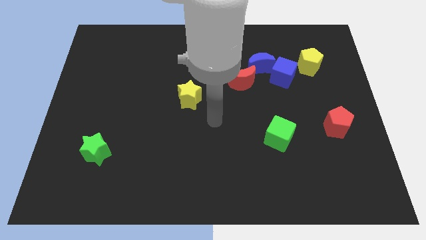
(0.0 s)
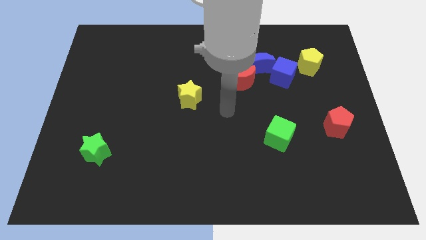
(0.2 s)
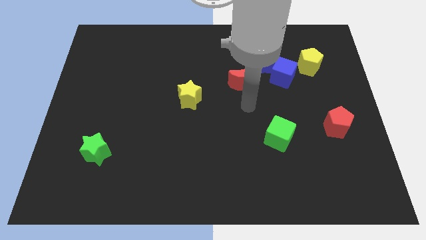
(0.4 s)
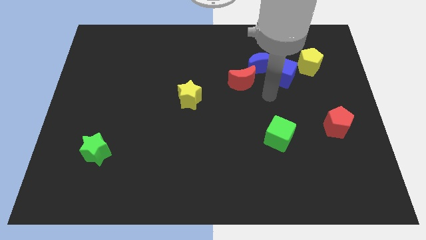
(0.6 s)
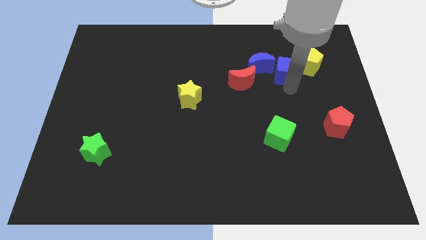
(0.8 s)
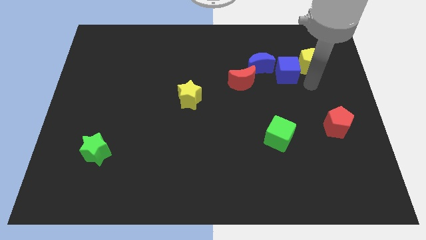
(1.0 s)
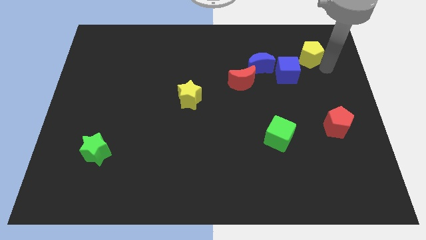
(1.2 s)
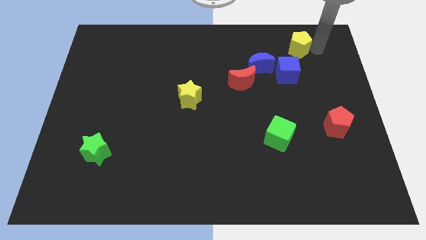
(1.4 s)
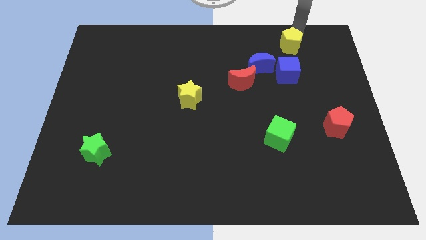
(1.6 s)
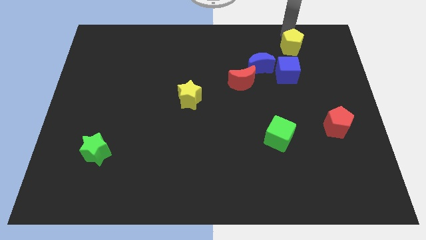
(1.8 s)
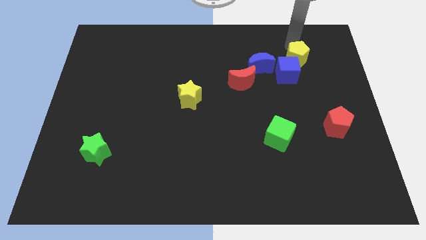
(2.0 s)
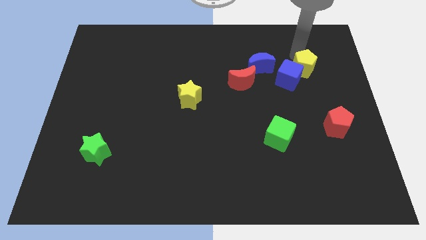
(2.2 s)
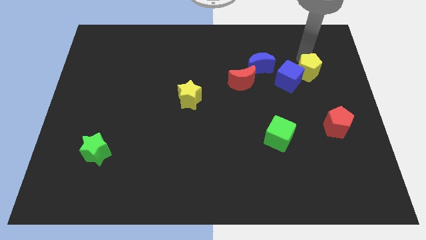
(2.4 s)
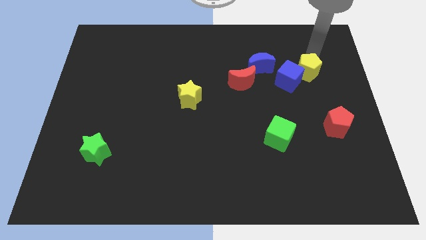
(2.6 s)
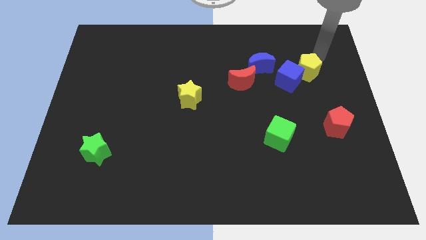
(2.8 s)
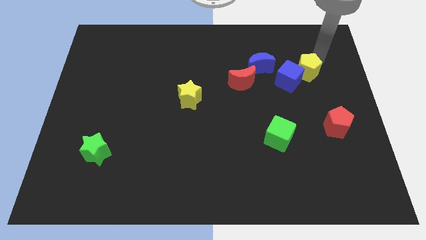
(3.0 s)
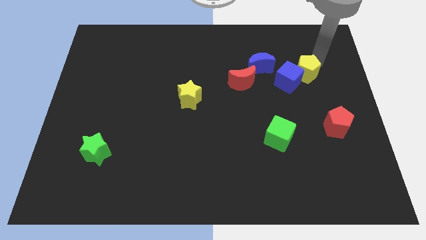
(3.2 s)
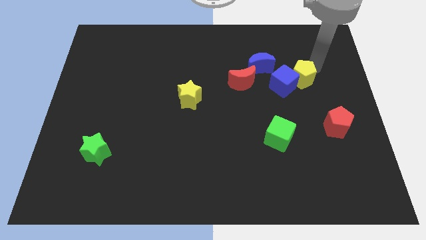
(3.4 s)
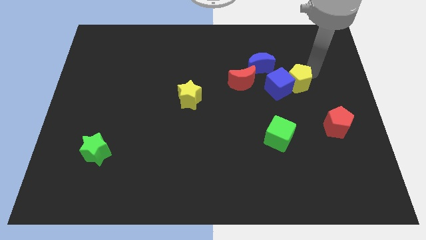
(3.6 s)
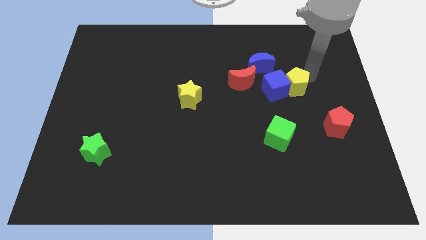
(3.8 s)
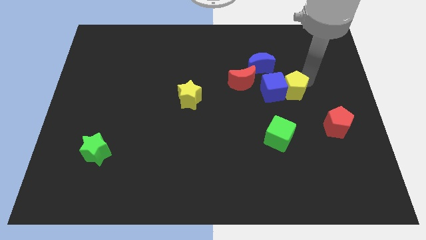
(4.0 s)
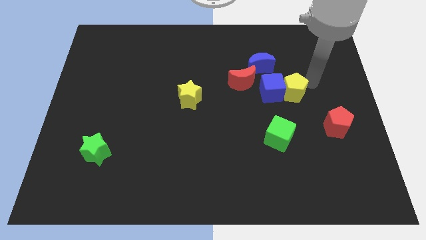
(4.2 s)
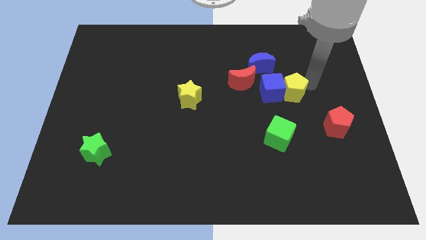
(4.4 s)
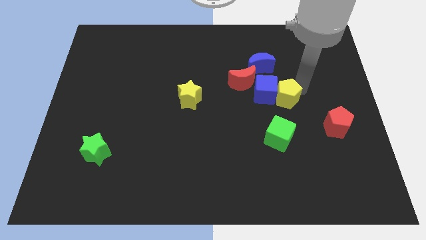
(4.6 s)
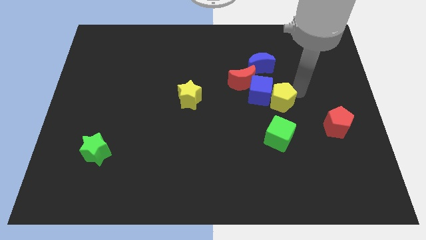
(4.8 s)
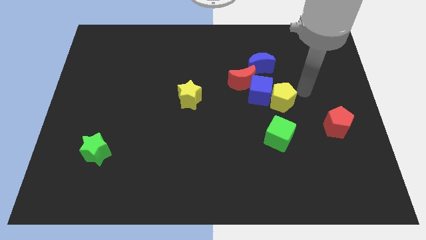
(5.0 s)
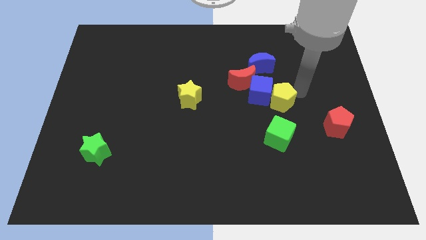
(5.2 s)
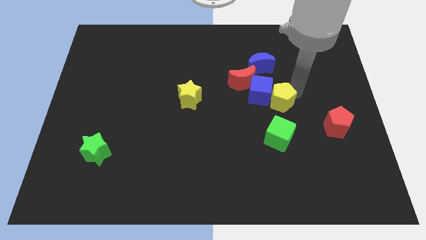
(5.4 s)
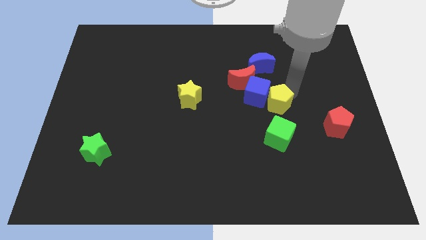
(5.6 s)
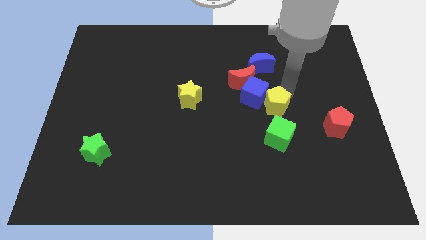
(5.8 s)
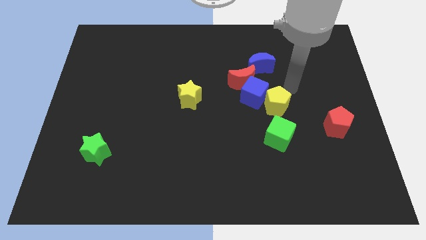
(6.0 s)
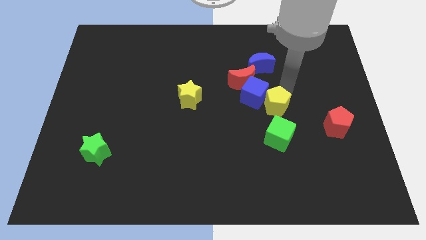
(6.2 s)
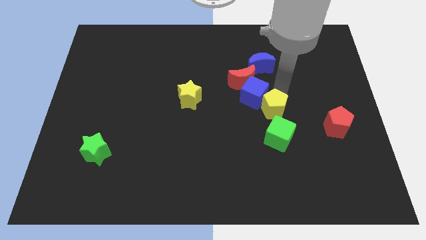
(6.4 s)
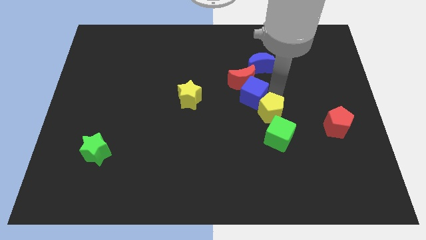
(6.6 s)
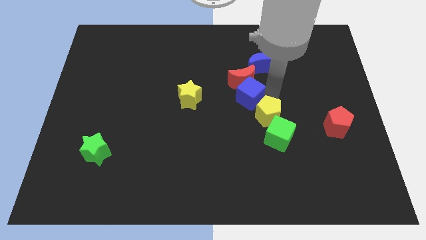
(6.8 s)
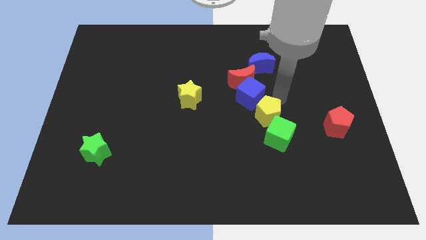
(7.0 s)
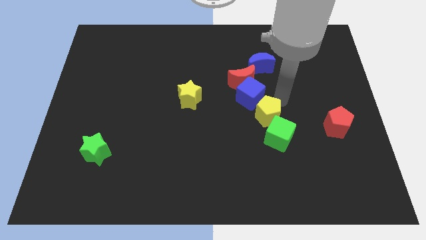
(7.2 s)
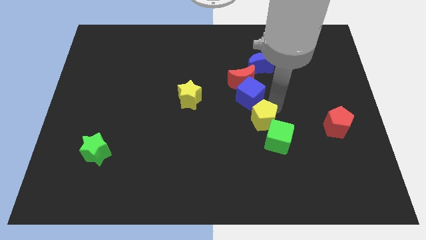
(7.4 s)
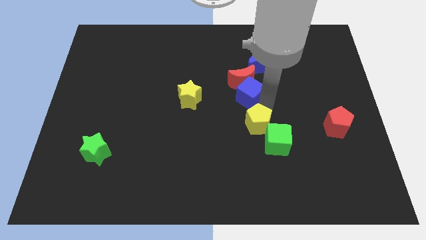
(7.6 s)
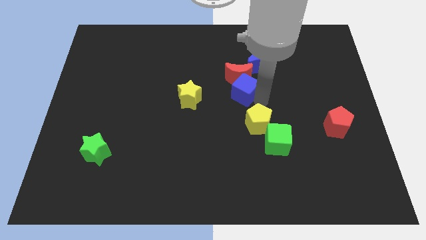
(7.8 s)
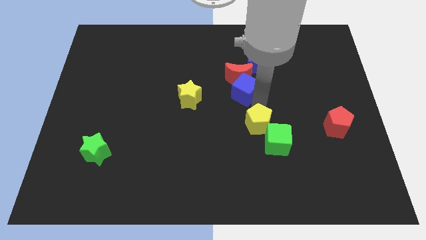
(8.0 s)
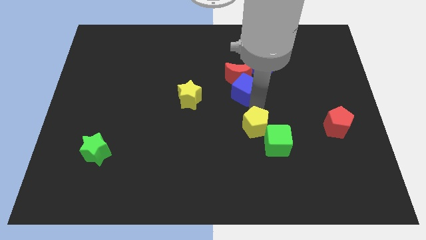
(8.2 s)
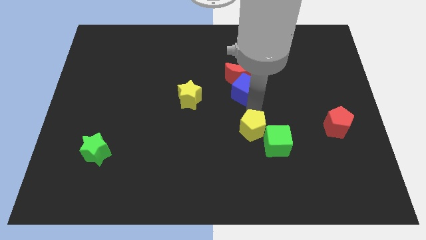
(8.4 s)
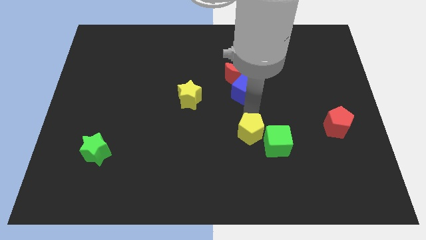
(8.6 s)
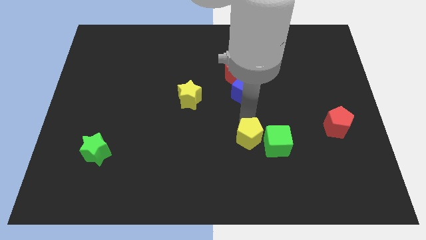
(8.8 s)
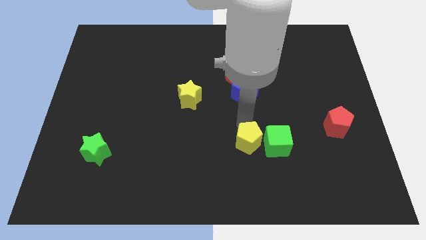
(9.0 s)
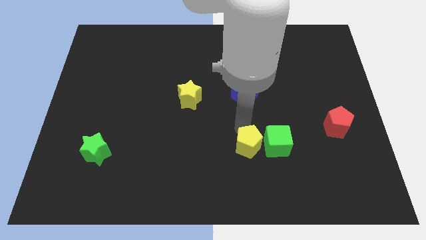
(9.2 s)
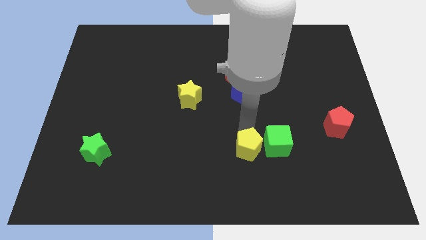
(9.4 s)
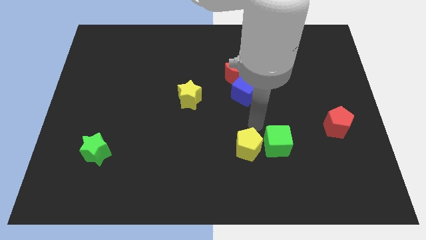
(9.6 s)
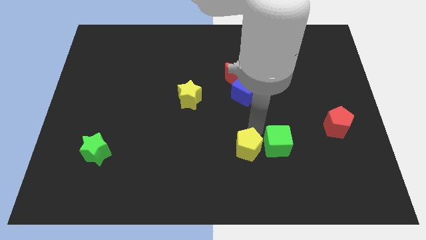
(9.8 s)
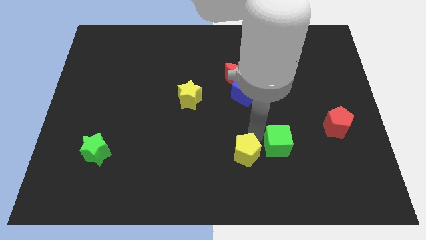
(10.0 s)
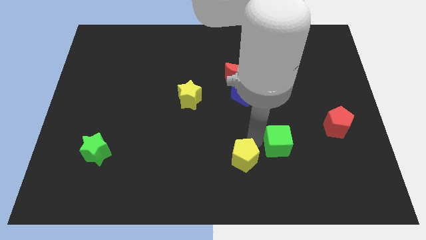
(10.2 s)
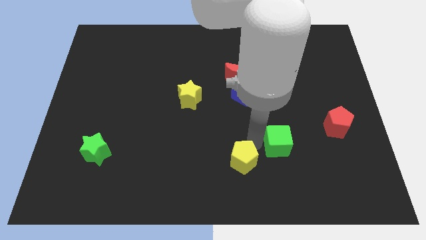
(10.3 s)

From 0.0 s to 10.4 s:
push the yellow pentagon to the bottom
